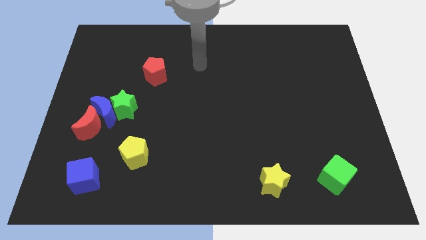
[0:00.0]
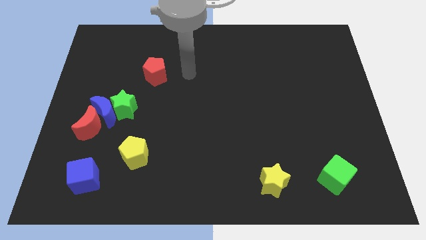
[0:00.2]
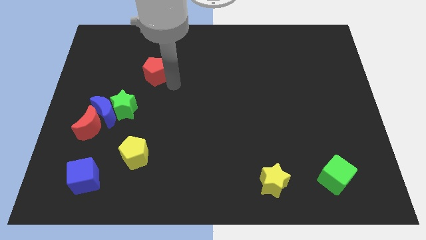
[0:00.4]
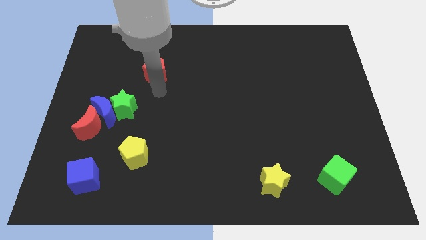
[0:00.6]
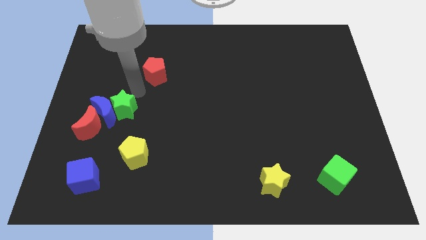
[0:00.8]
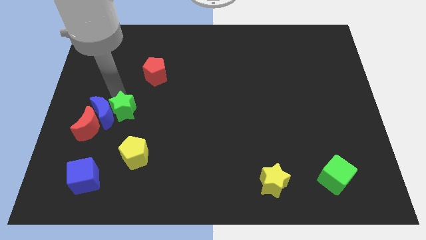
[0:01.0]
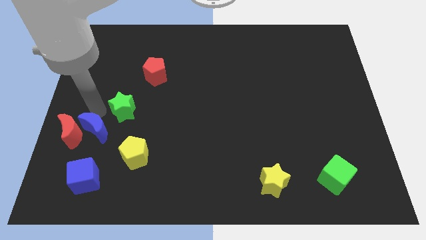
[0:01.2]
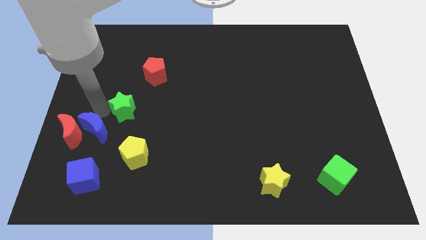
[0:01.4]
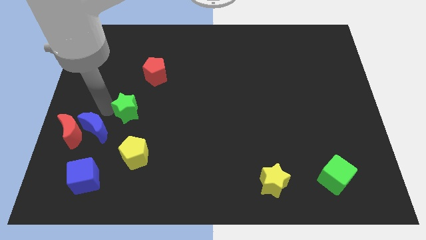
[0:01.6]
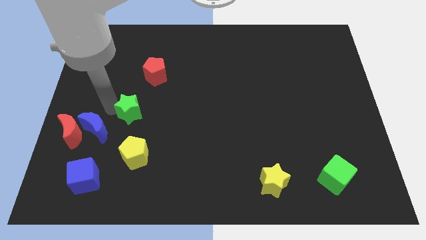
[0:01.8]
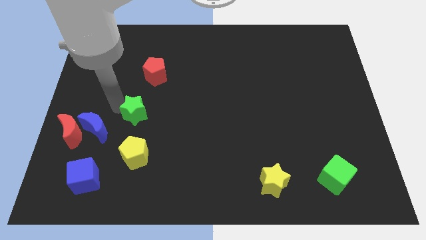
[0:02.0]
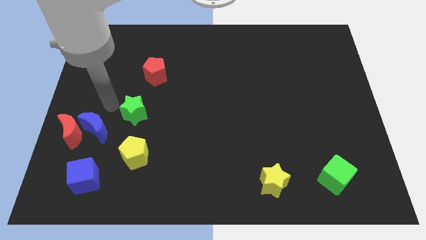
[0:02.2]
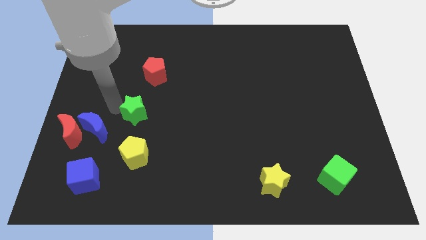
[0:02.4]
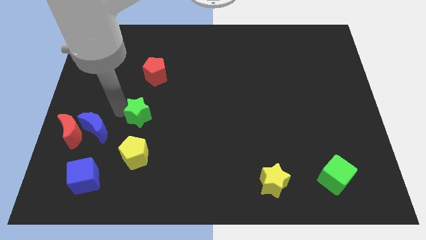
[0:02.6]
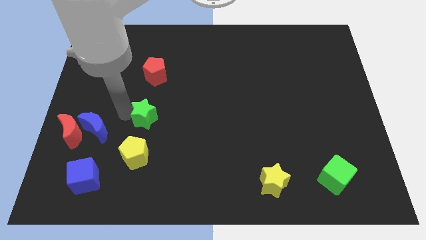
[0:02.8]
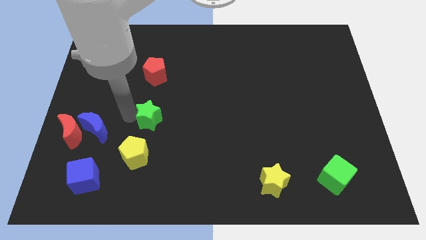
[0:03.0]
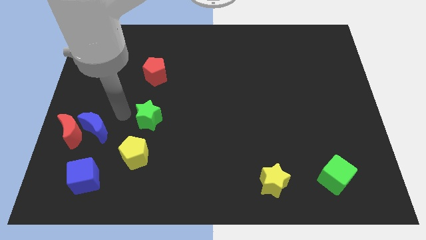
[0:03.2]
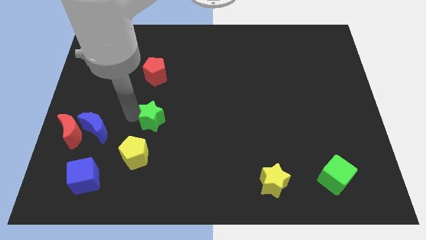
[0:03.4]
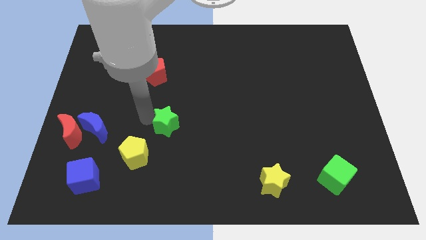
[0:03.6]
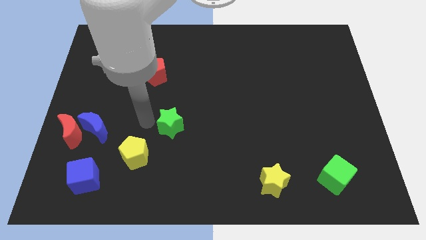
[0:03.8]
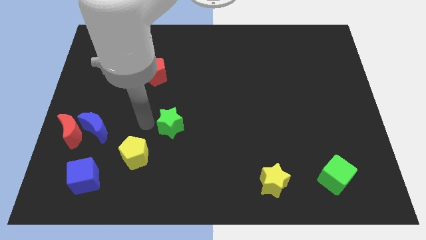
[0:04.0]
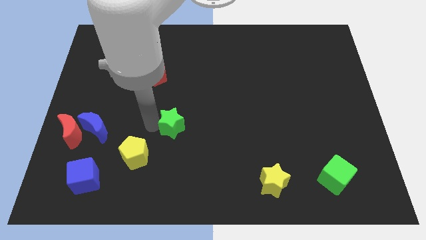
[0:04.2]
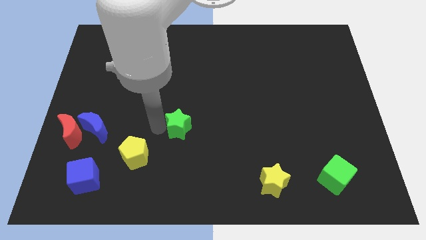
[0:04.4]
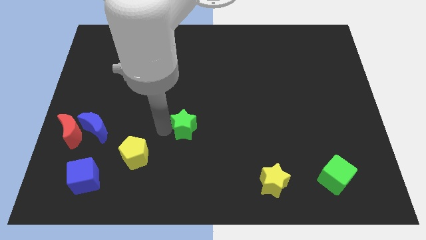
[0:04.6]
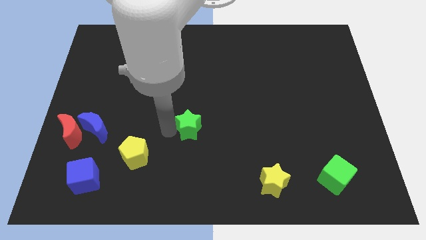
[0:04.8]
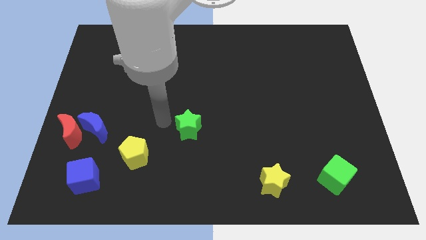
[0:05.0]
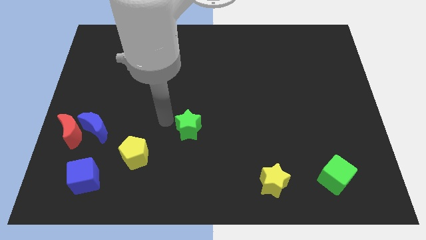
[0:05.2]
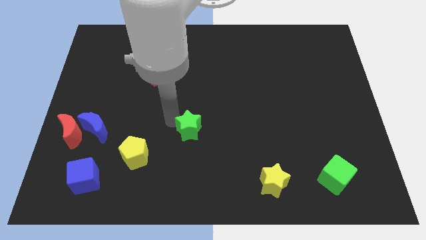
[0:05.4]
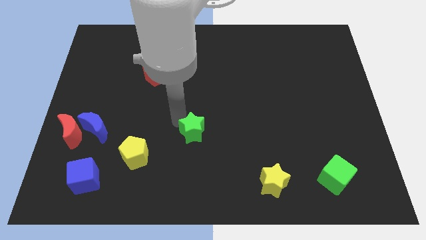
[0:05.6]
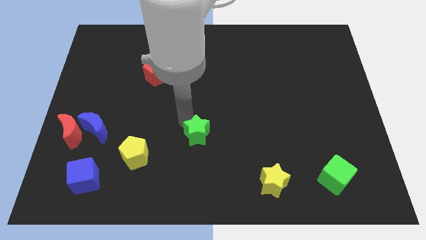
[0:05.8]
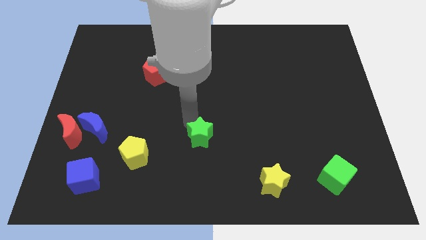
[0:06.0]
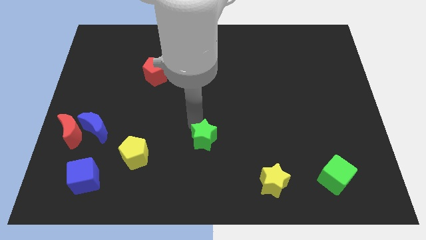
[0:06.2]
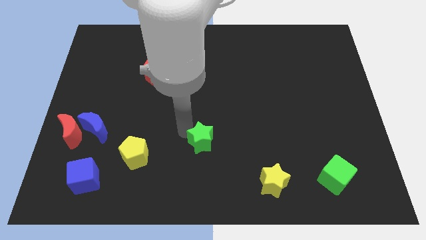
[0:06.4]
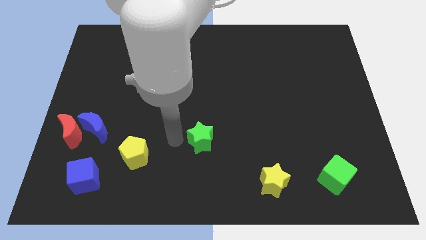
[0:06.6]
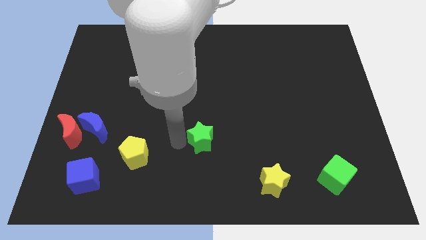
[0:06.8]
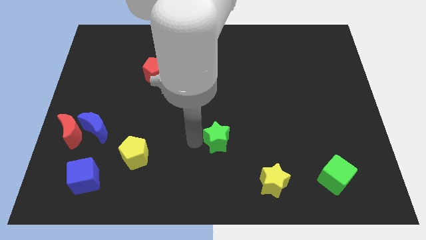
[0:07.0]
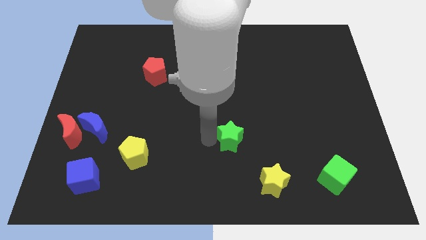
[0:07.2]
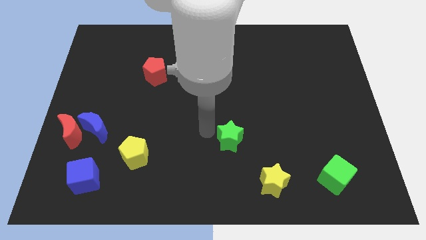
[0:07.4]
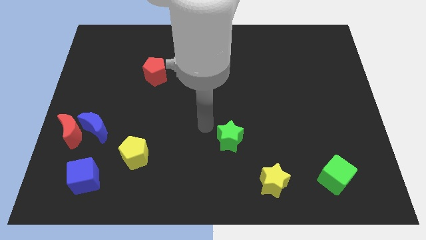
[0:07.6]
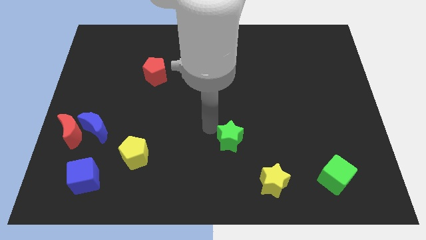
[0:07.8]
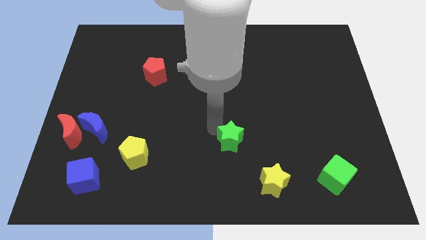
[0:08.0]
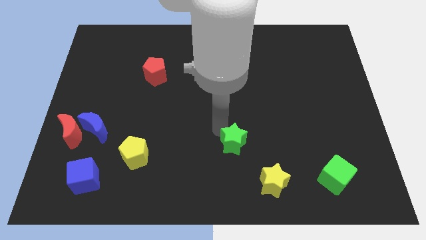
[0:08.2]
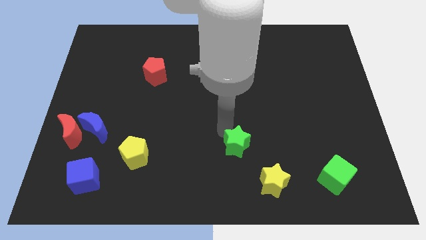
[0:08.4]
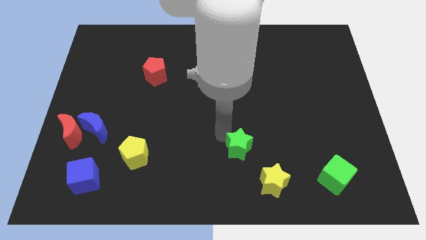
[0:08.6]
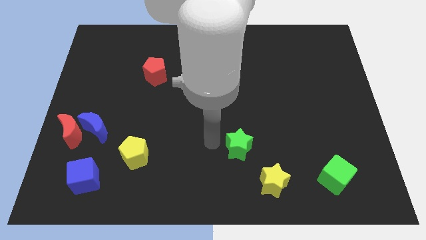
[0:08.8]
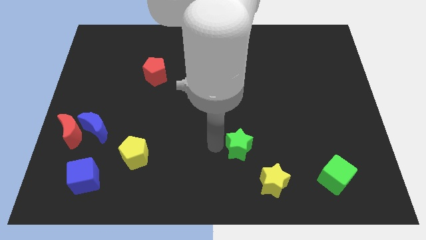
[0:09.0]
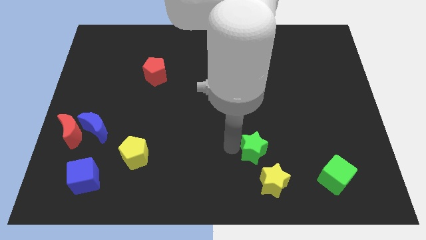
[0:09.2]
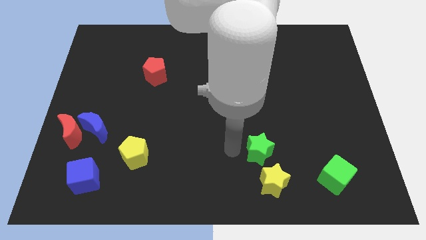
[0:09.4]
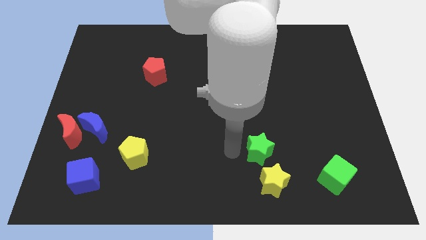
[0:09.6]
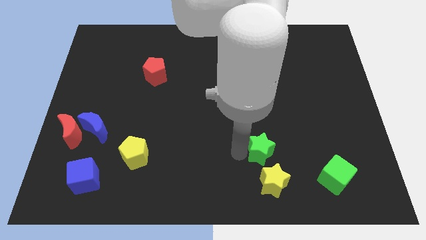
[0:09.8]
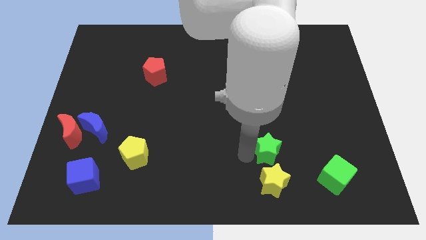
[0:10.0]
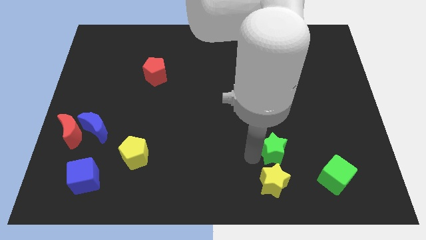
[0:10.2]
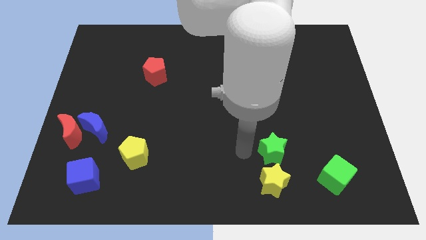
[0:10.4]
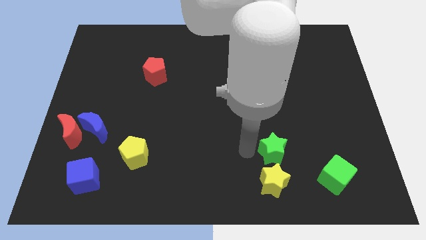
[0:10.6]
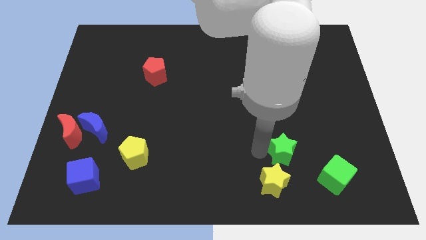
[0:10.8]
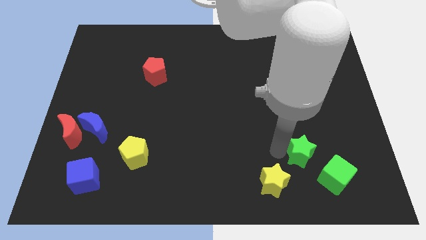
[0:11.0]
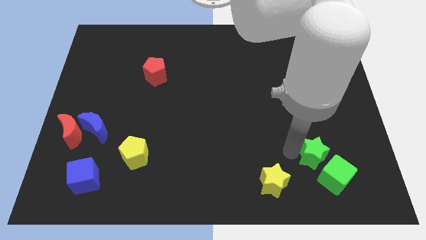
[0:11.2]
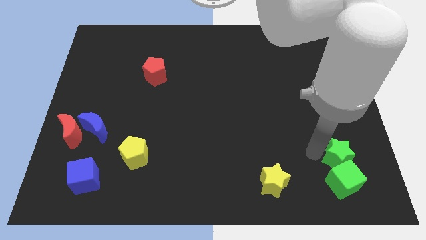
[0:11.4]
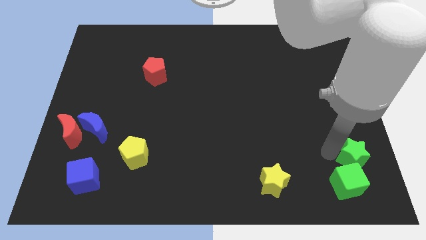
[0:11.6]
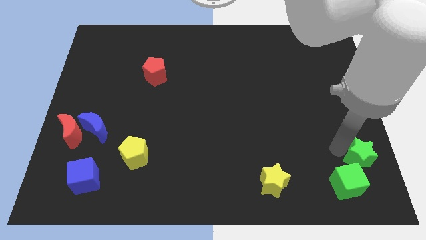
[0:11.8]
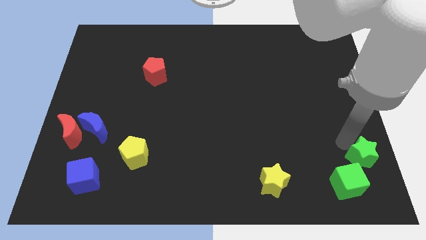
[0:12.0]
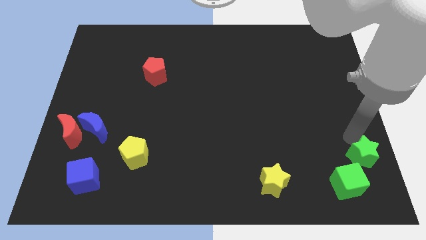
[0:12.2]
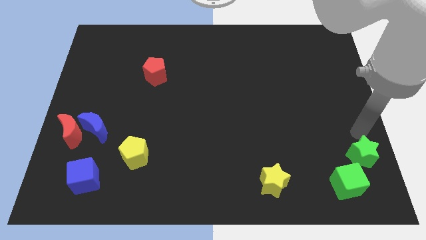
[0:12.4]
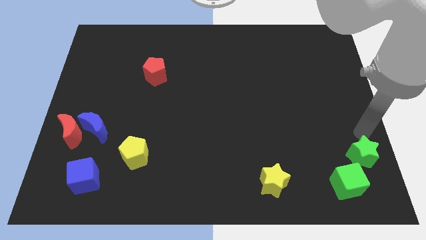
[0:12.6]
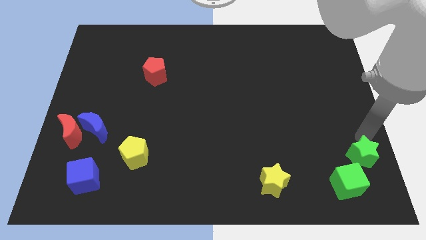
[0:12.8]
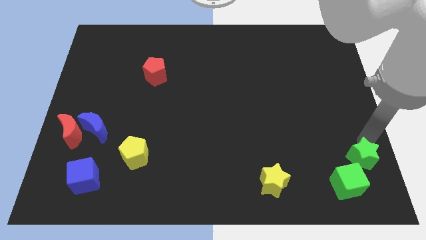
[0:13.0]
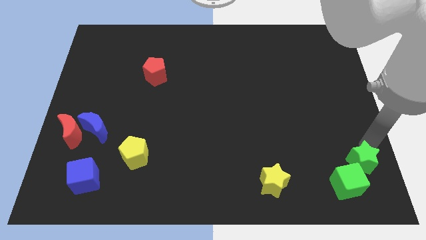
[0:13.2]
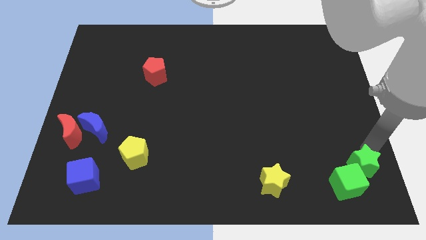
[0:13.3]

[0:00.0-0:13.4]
put the green star to the bottom right of the board

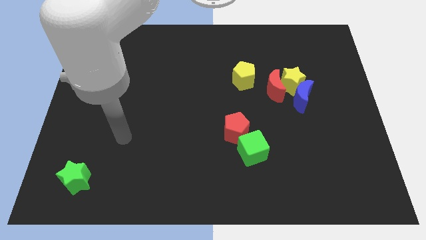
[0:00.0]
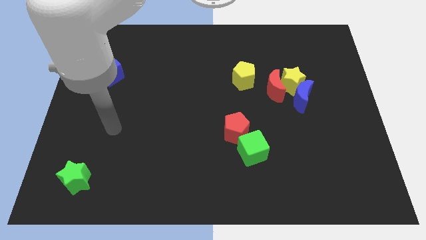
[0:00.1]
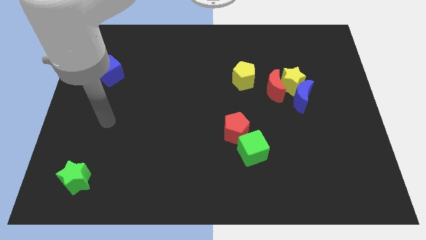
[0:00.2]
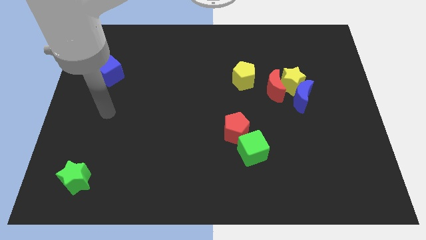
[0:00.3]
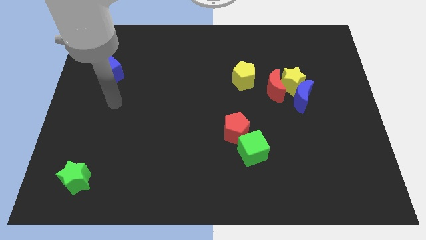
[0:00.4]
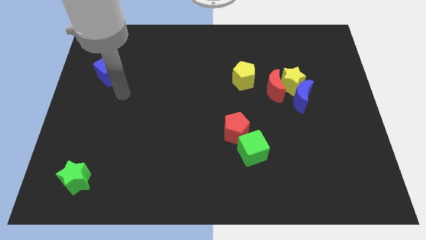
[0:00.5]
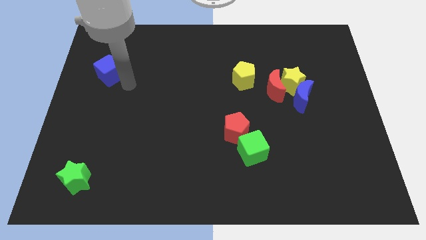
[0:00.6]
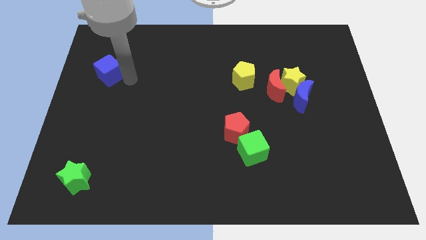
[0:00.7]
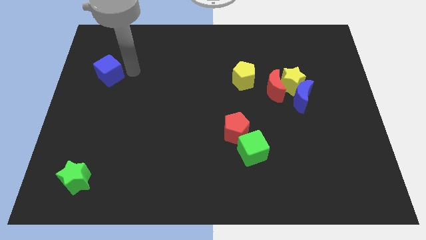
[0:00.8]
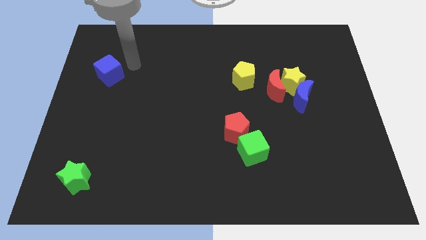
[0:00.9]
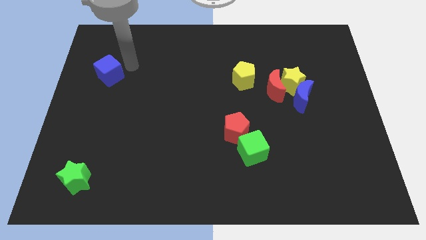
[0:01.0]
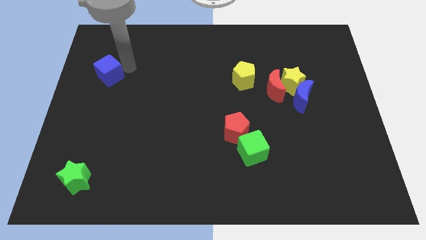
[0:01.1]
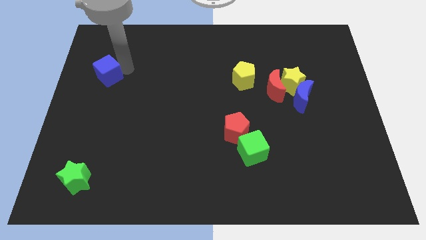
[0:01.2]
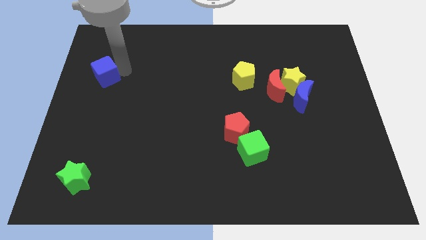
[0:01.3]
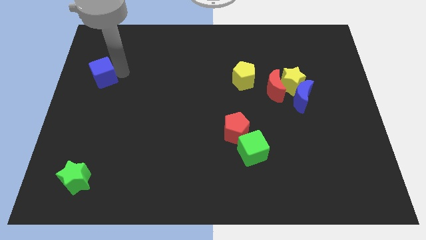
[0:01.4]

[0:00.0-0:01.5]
move the blue cube to the center left
